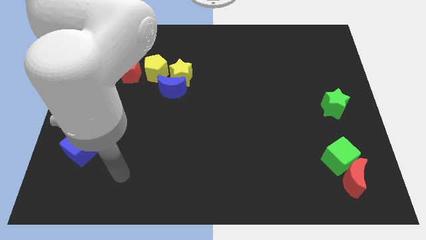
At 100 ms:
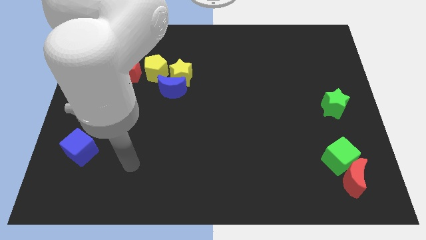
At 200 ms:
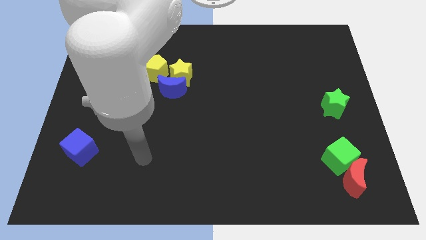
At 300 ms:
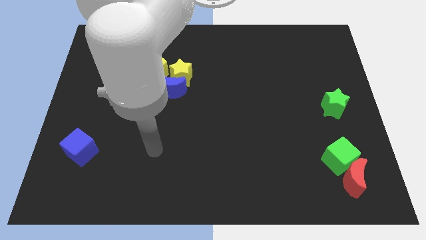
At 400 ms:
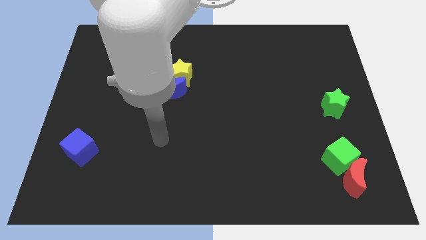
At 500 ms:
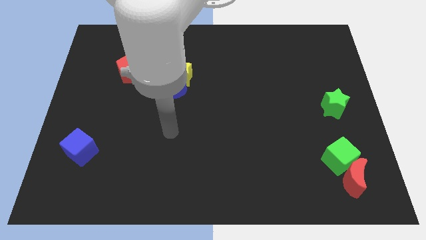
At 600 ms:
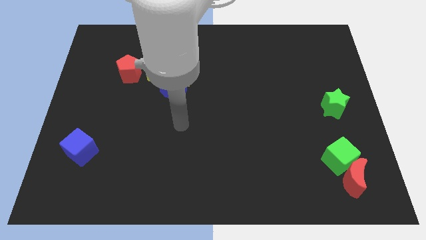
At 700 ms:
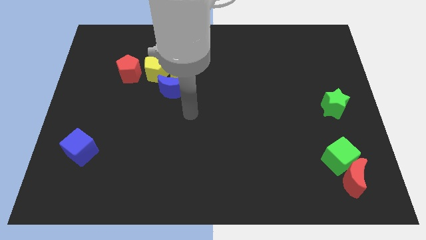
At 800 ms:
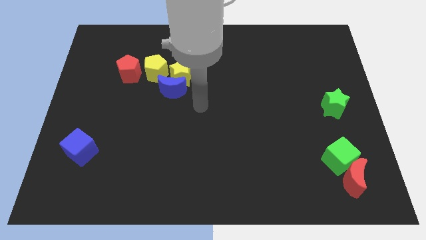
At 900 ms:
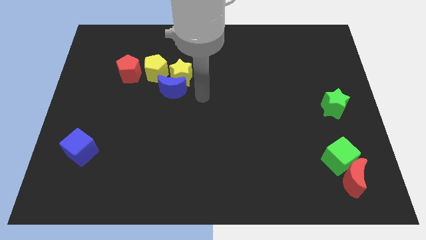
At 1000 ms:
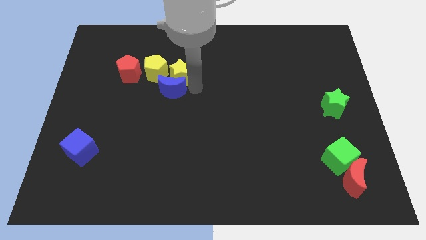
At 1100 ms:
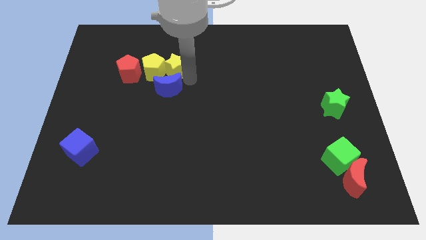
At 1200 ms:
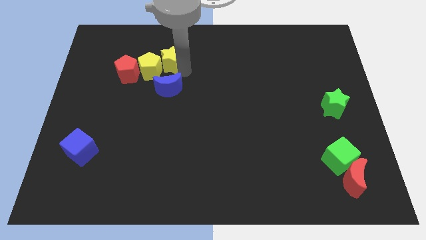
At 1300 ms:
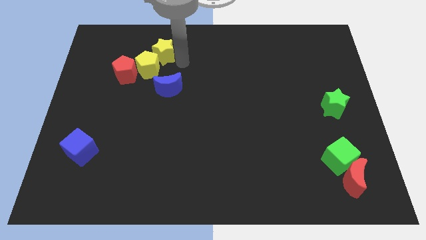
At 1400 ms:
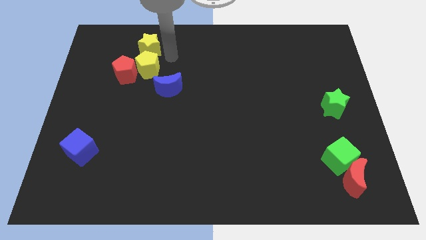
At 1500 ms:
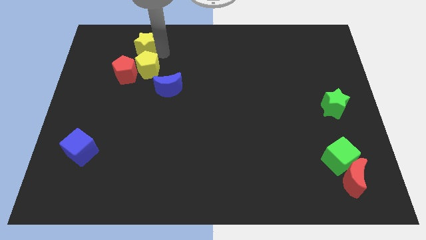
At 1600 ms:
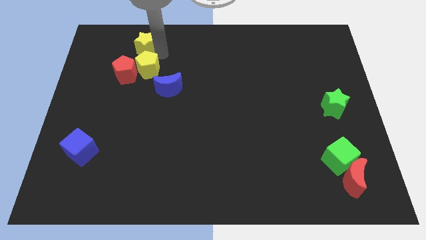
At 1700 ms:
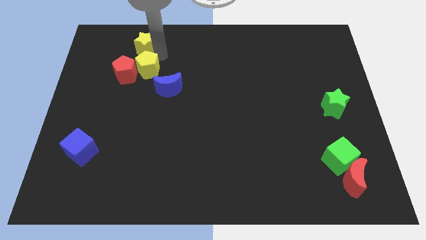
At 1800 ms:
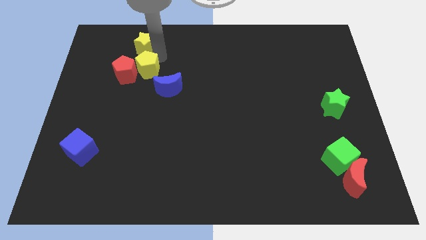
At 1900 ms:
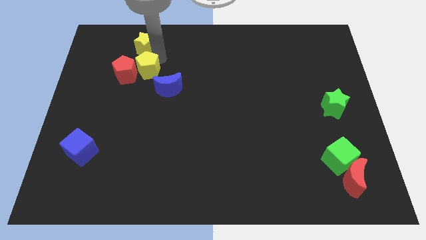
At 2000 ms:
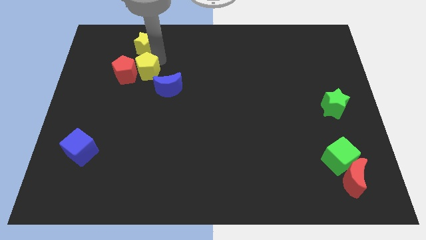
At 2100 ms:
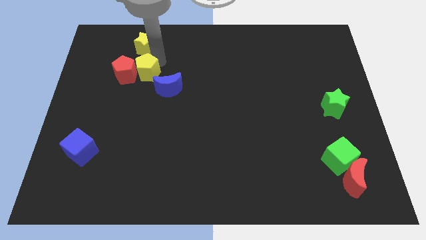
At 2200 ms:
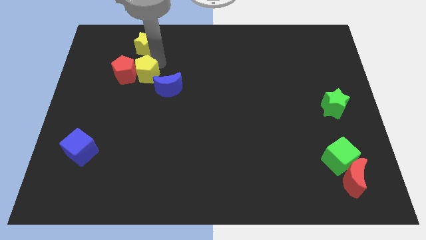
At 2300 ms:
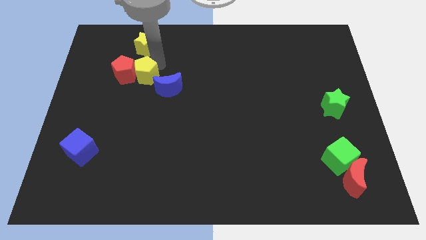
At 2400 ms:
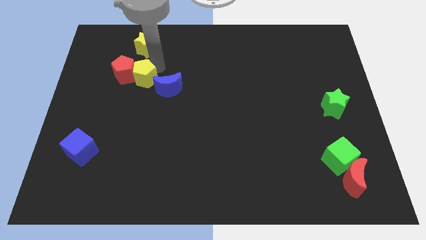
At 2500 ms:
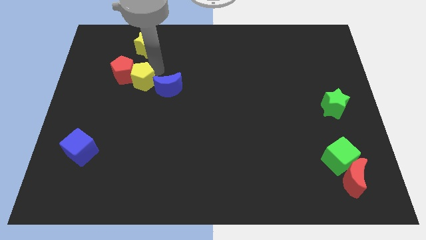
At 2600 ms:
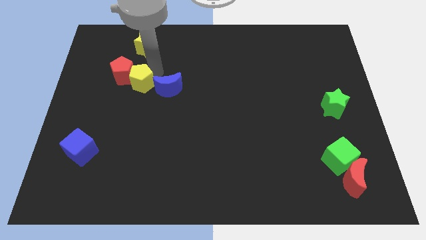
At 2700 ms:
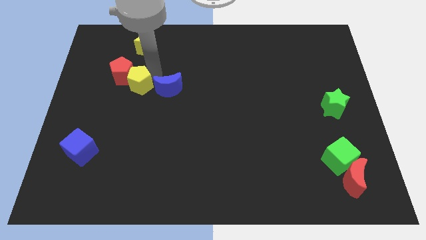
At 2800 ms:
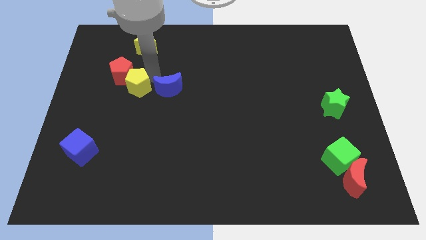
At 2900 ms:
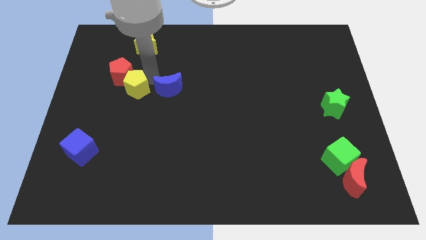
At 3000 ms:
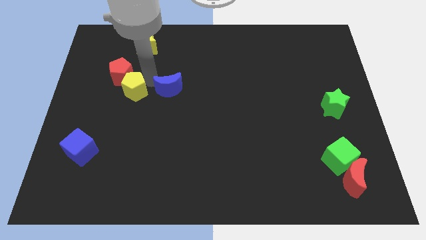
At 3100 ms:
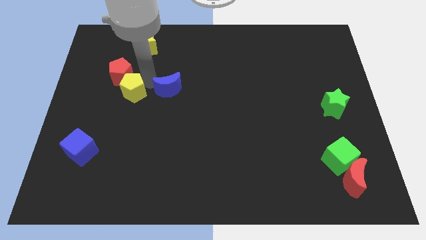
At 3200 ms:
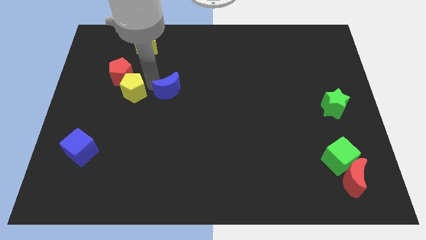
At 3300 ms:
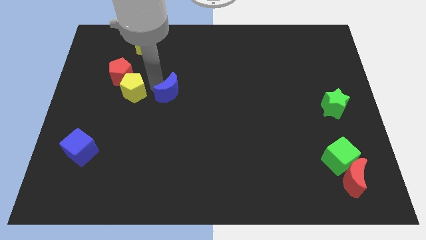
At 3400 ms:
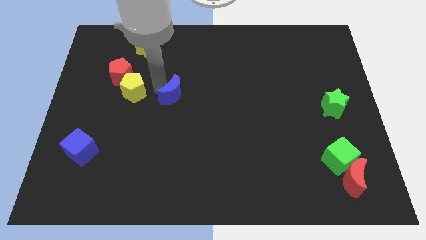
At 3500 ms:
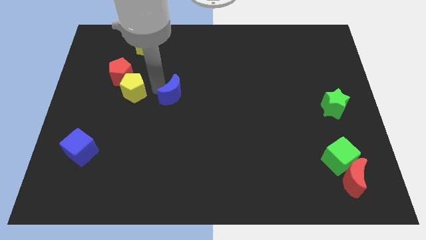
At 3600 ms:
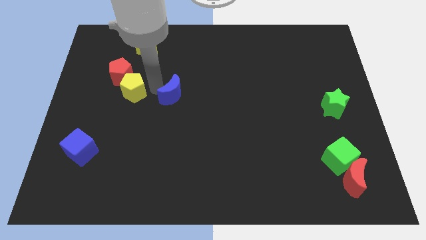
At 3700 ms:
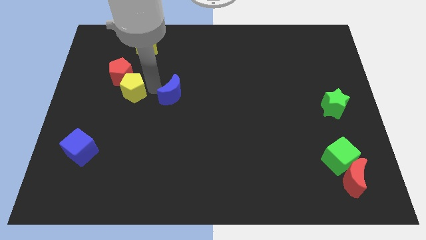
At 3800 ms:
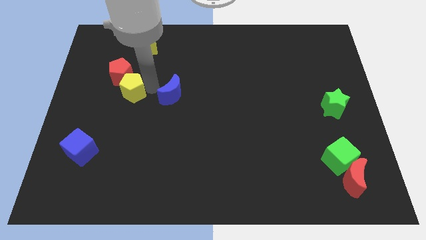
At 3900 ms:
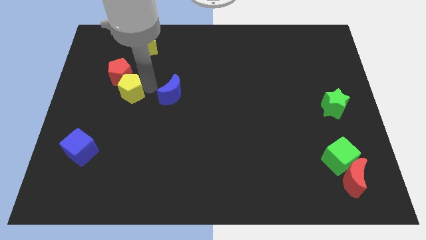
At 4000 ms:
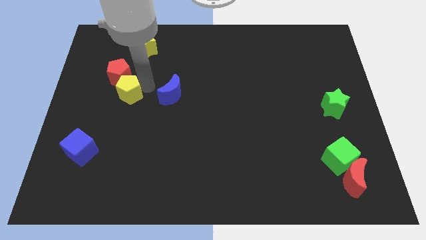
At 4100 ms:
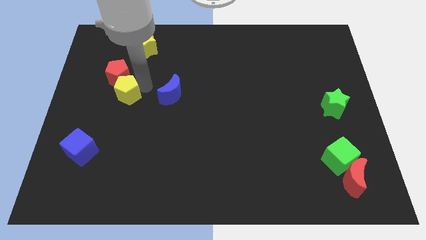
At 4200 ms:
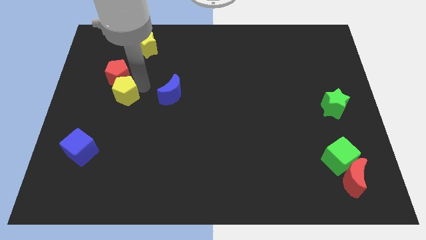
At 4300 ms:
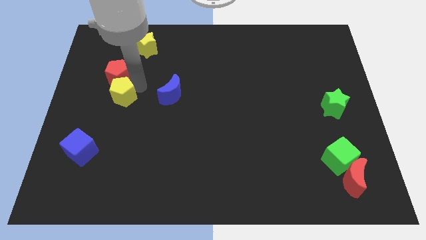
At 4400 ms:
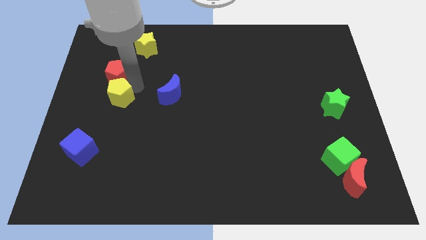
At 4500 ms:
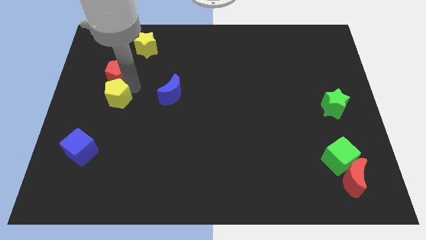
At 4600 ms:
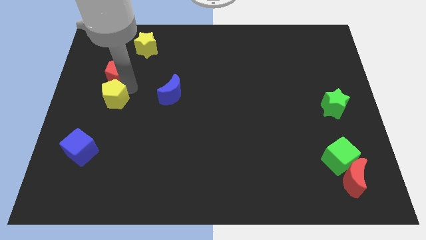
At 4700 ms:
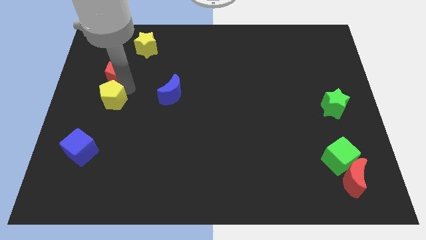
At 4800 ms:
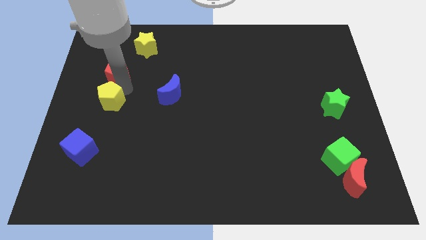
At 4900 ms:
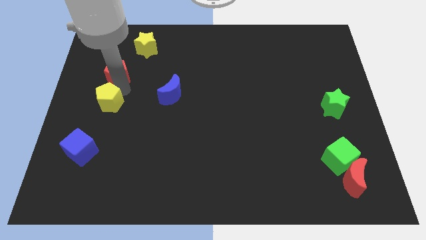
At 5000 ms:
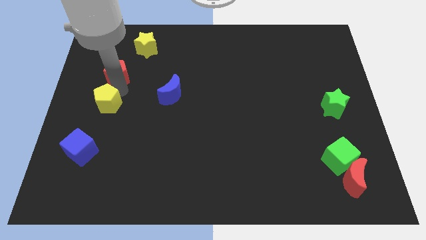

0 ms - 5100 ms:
move the yellow pentagon to the left side of the board

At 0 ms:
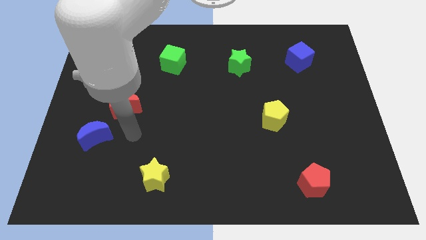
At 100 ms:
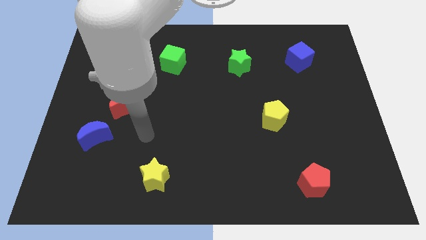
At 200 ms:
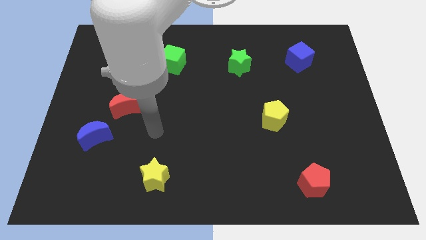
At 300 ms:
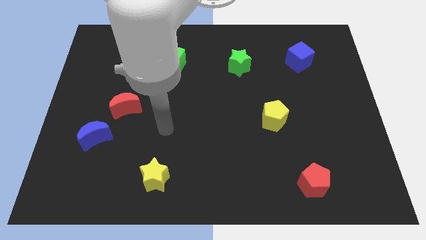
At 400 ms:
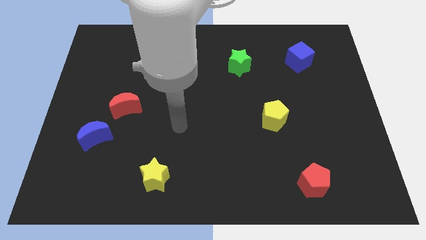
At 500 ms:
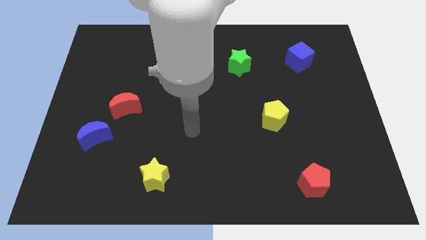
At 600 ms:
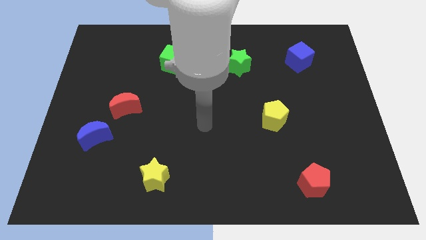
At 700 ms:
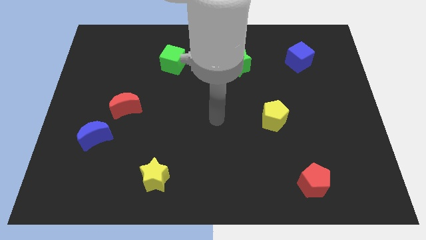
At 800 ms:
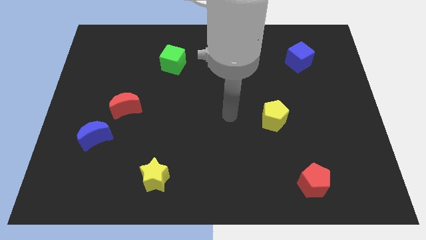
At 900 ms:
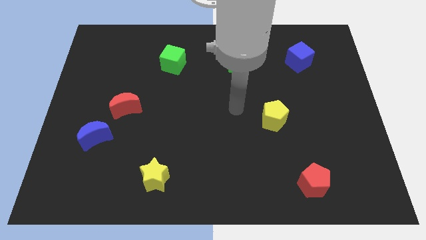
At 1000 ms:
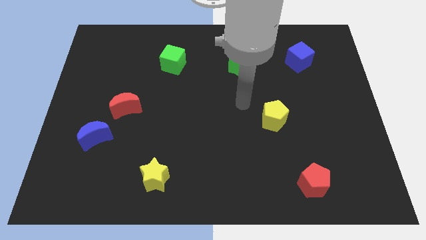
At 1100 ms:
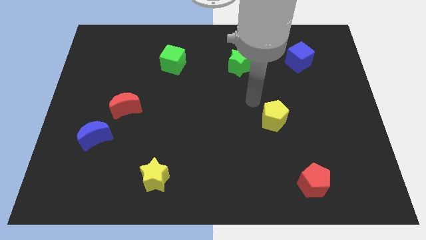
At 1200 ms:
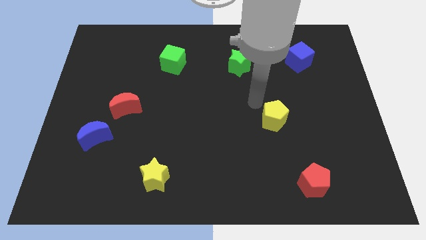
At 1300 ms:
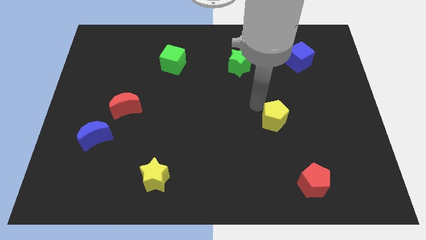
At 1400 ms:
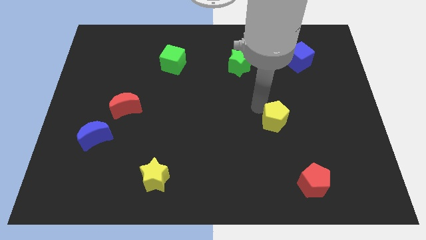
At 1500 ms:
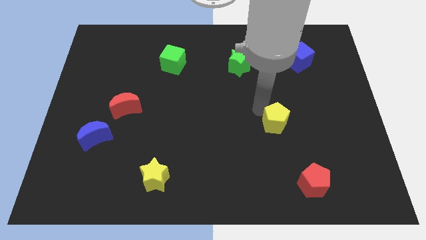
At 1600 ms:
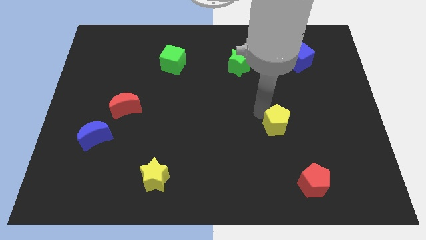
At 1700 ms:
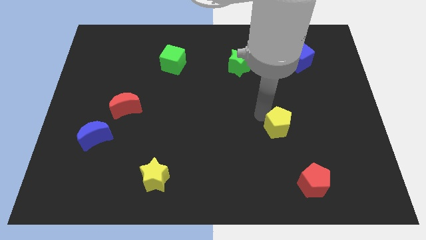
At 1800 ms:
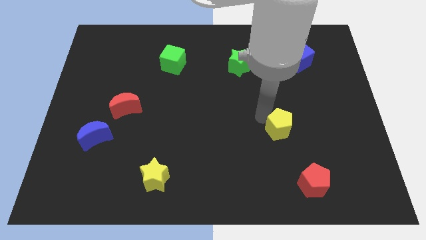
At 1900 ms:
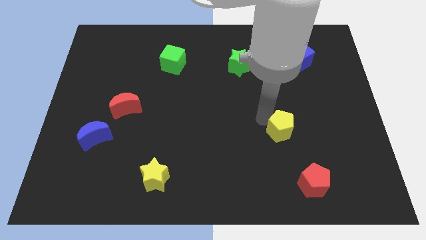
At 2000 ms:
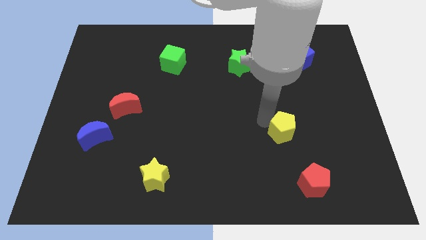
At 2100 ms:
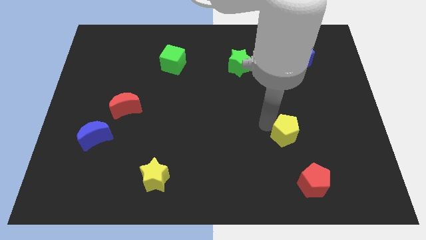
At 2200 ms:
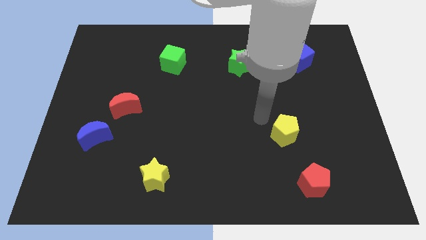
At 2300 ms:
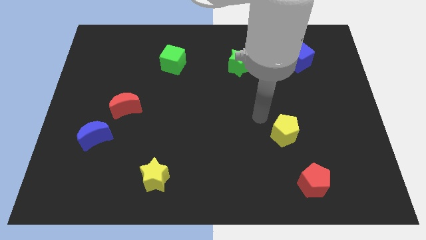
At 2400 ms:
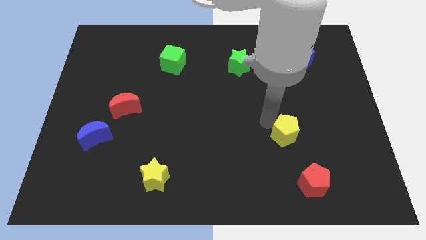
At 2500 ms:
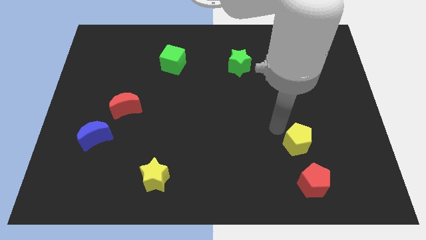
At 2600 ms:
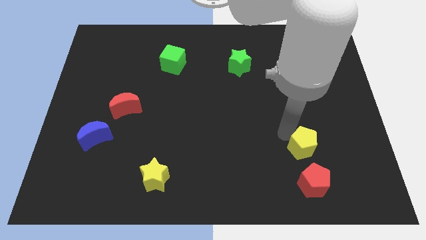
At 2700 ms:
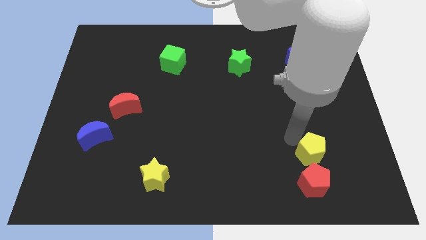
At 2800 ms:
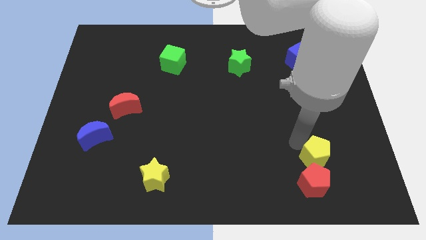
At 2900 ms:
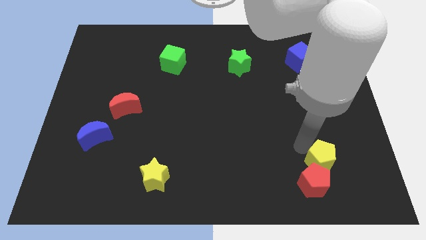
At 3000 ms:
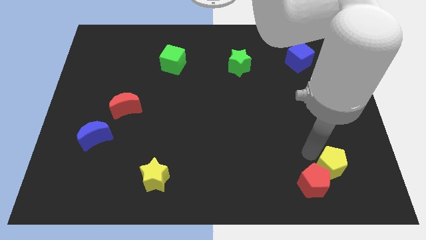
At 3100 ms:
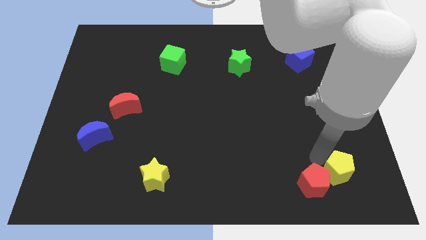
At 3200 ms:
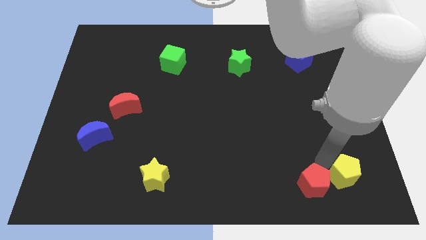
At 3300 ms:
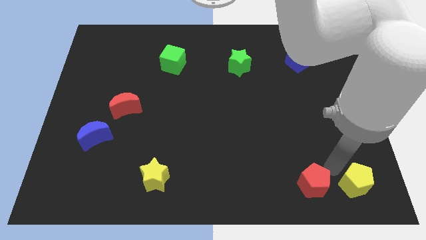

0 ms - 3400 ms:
slide the yellow pentagon to the bottom right corner
